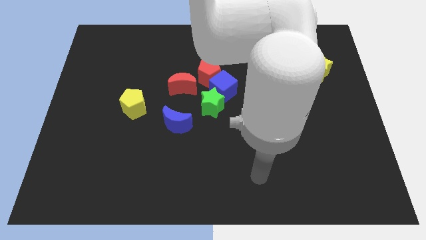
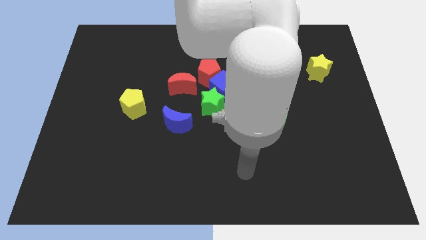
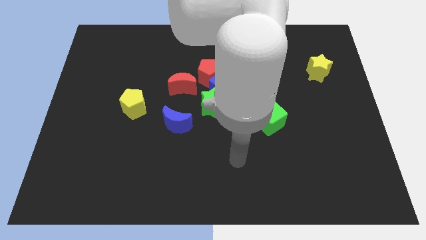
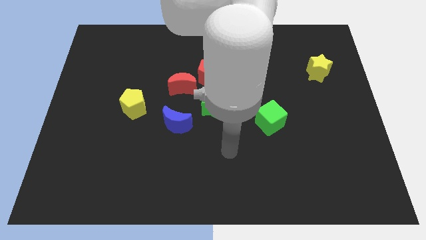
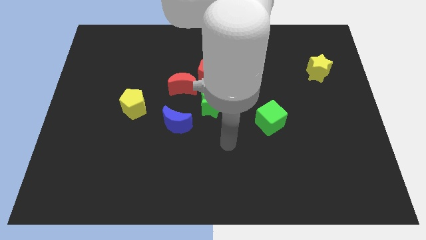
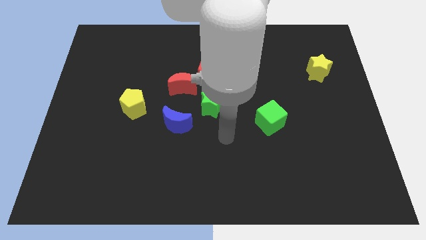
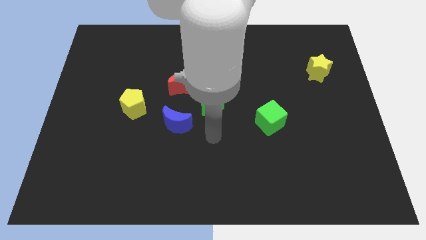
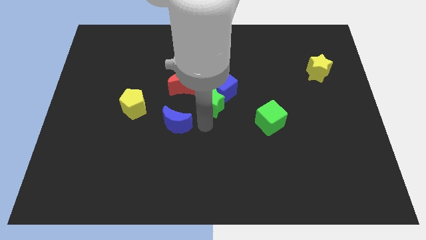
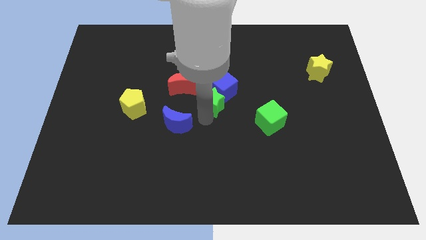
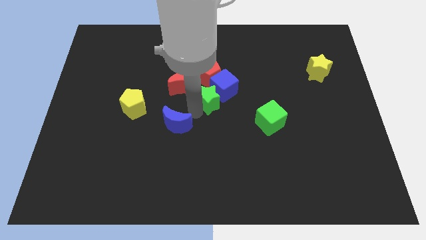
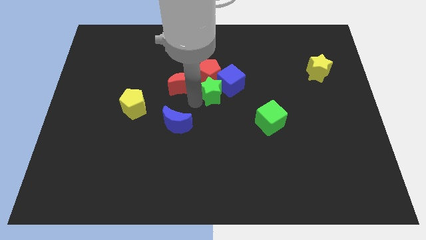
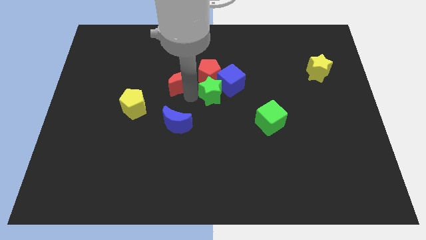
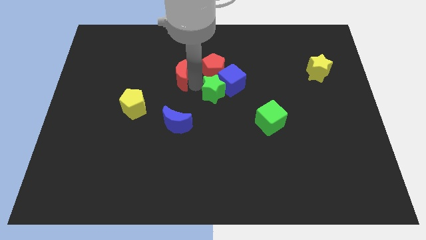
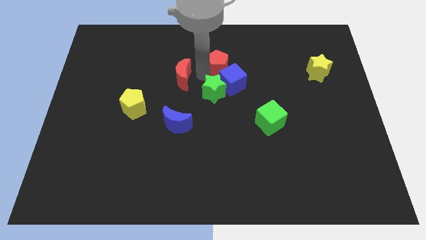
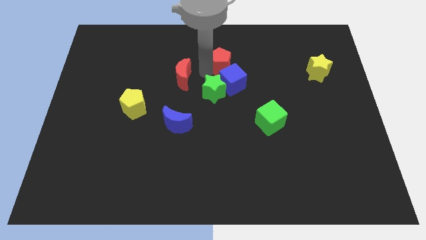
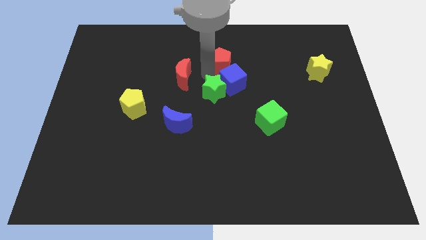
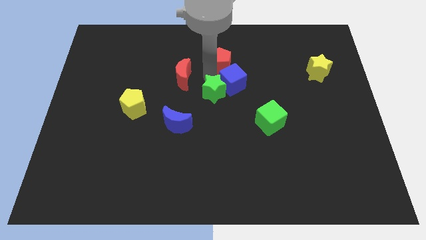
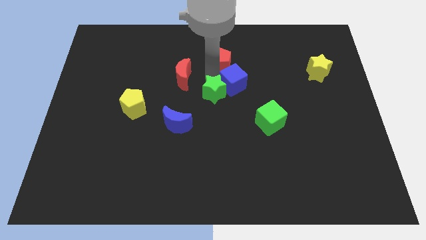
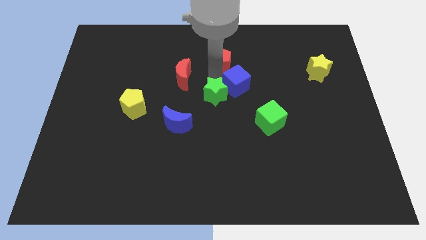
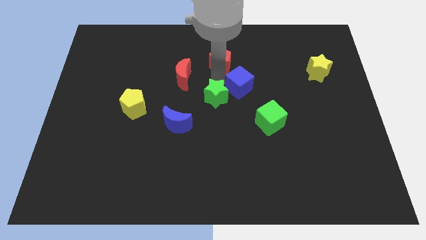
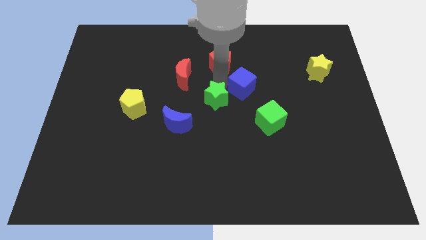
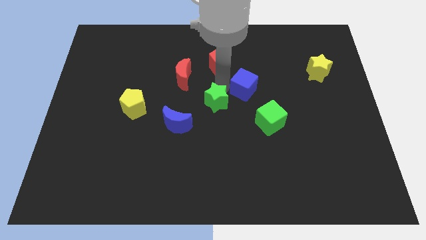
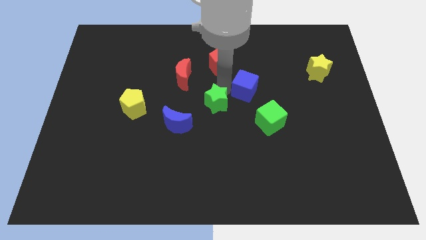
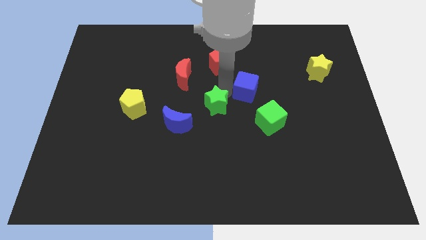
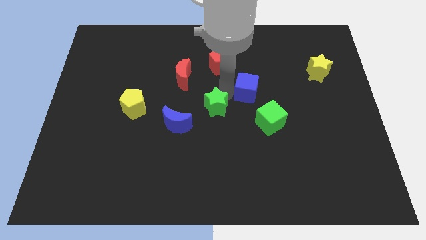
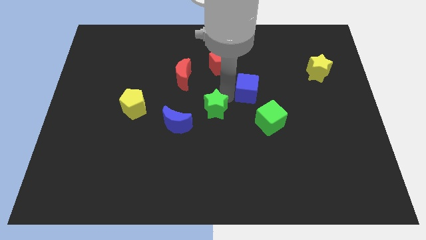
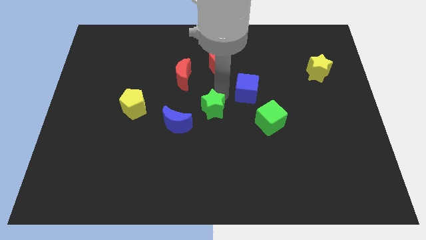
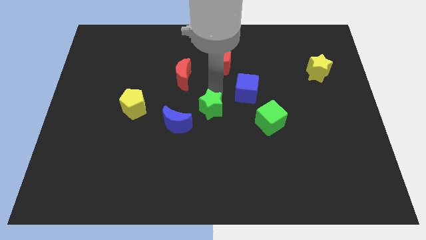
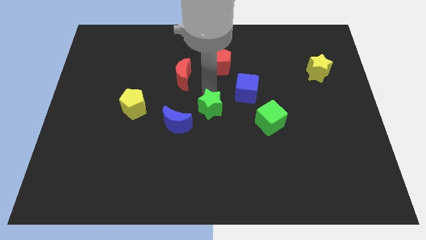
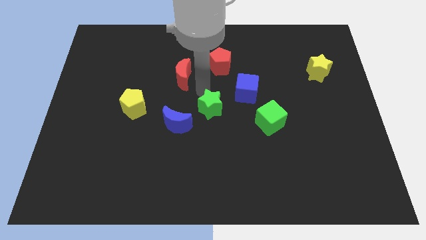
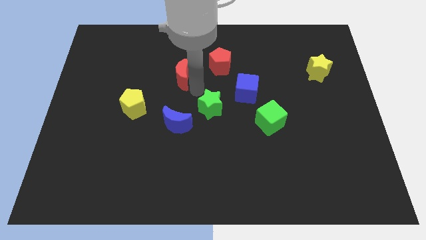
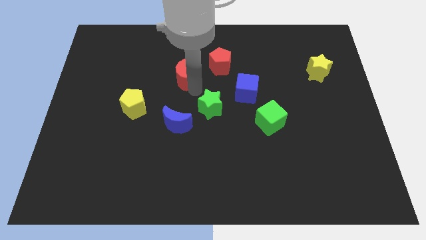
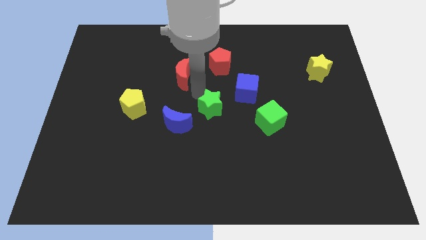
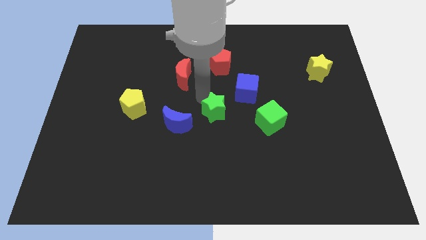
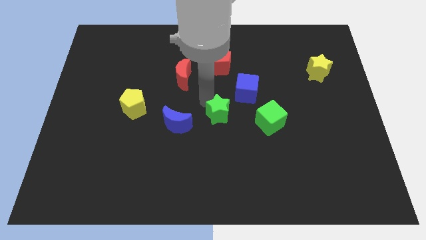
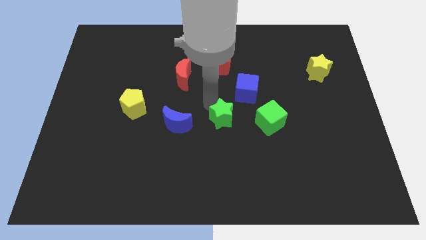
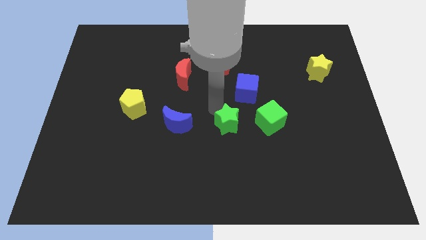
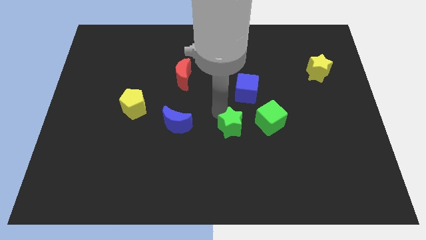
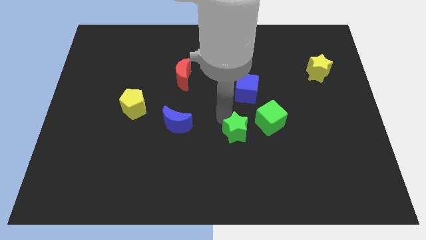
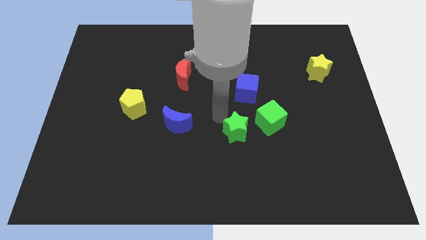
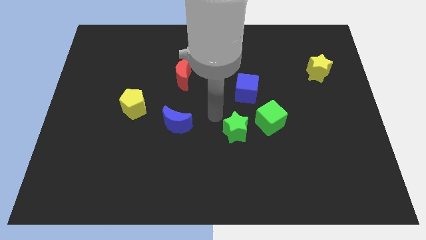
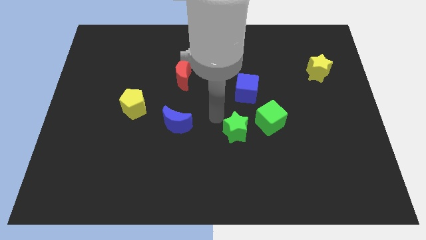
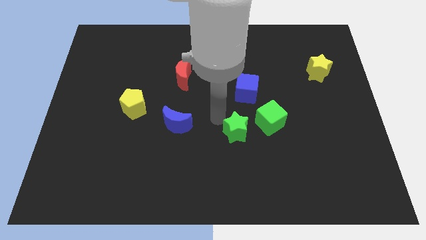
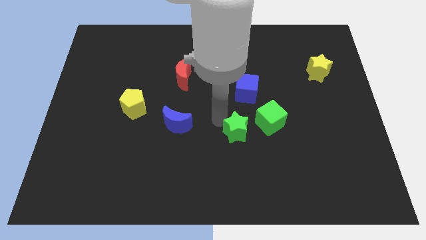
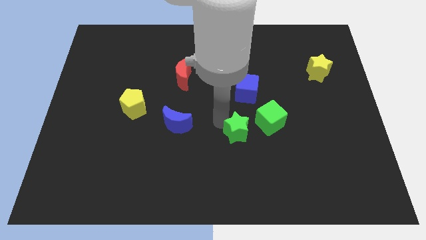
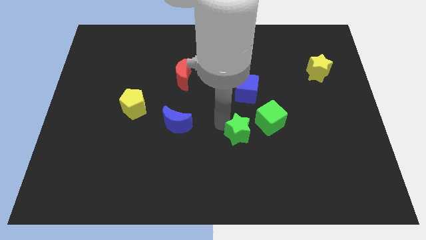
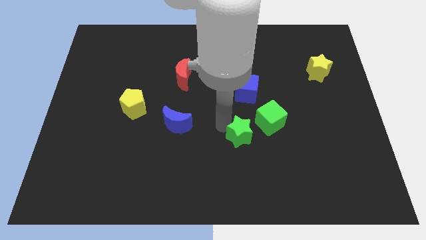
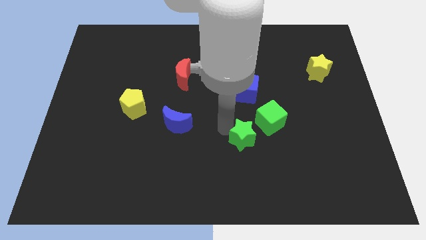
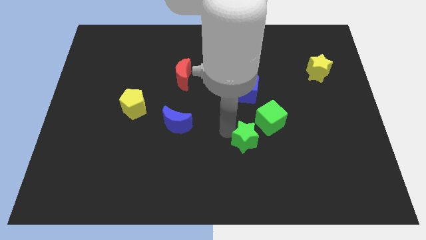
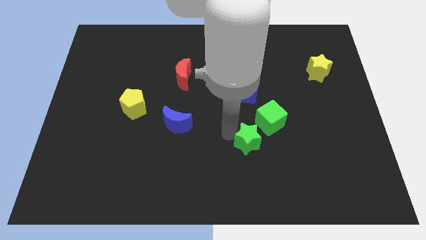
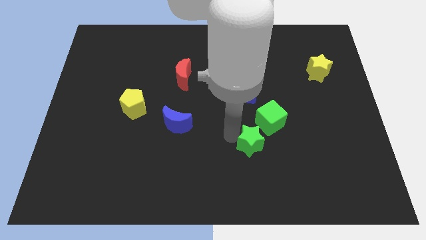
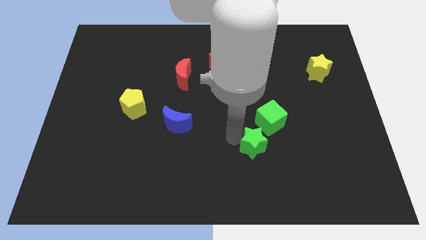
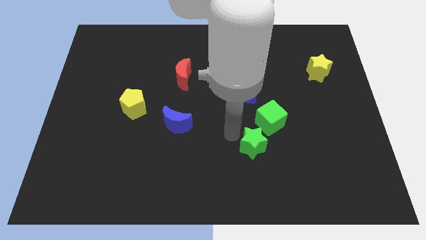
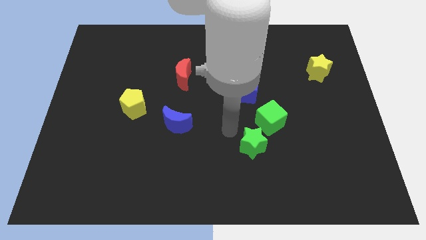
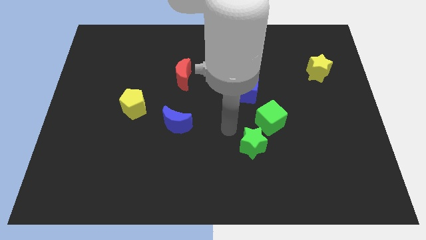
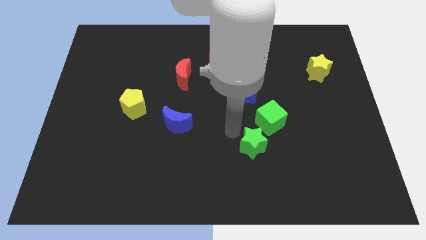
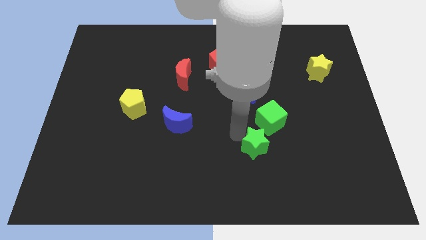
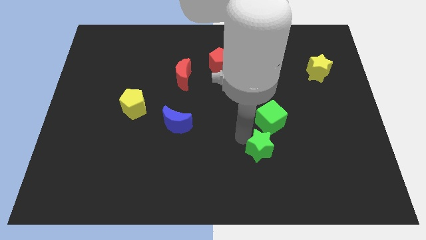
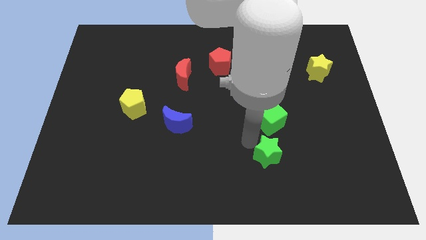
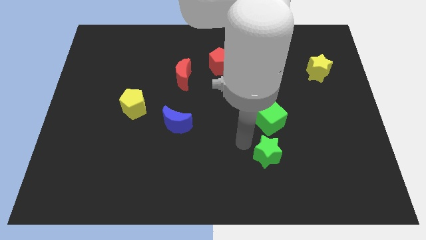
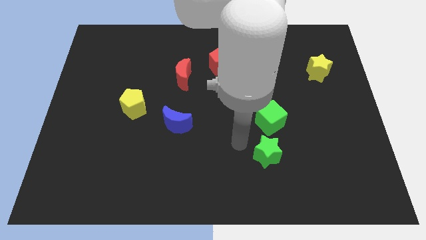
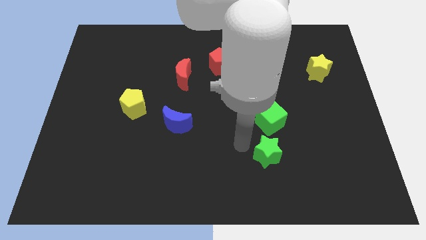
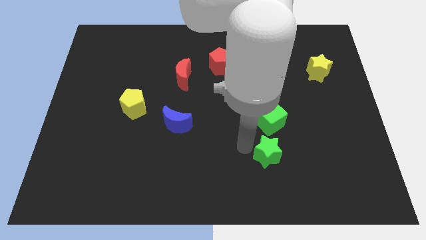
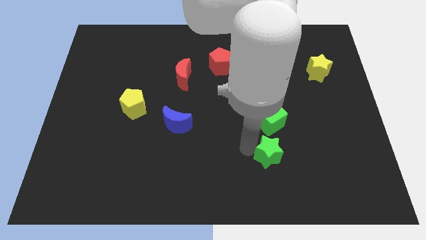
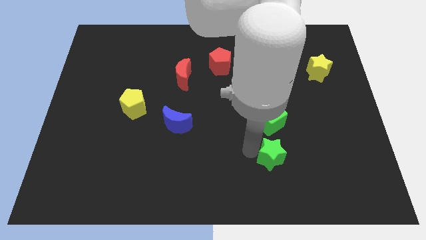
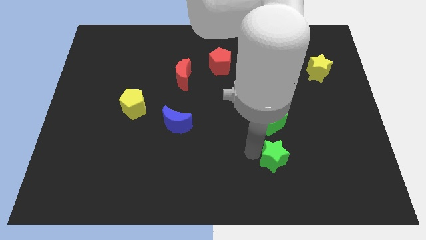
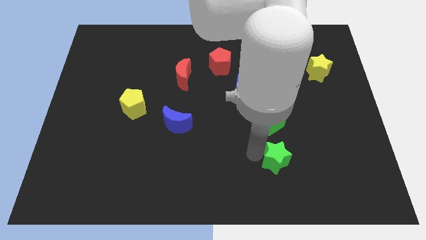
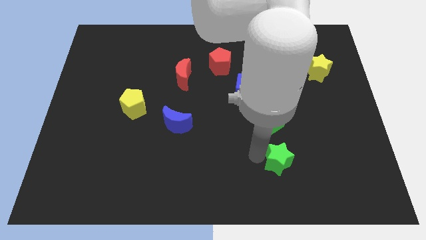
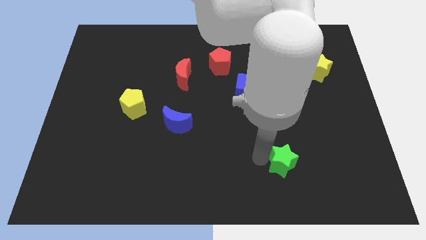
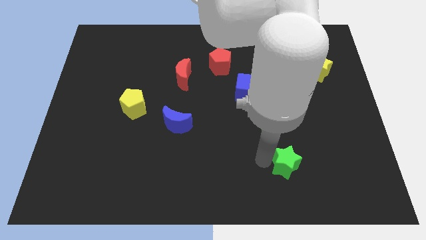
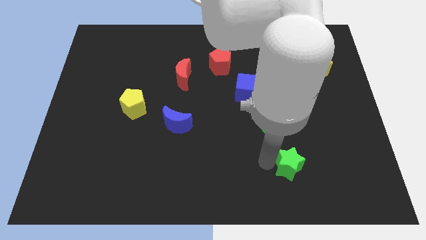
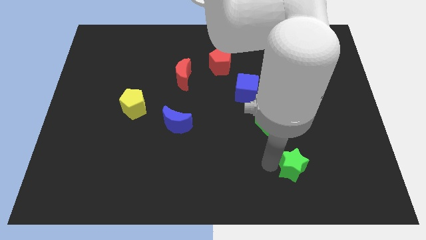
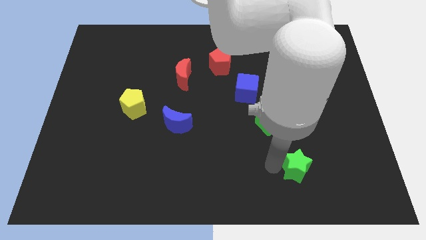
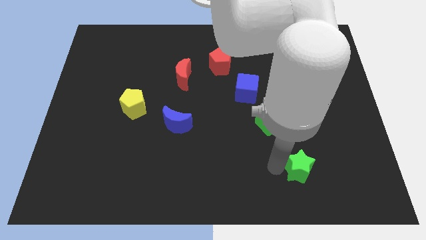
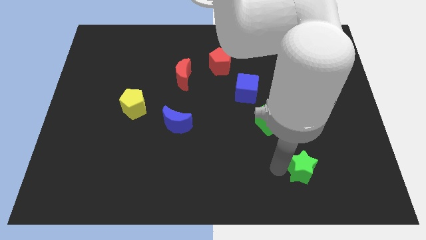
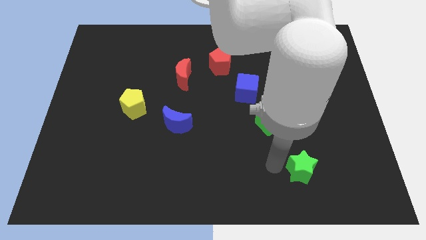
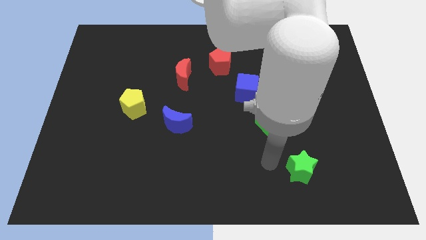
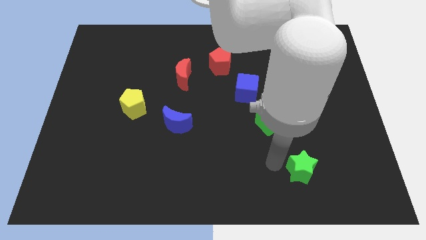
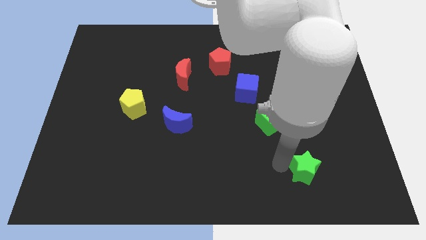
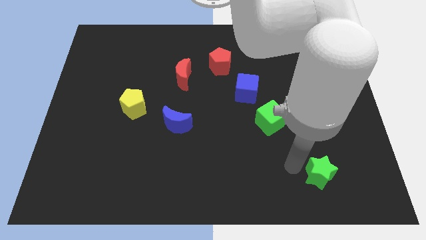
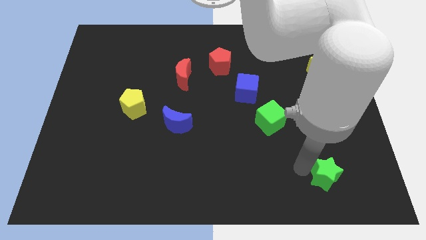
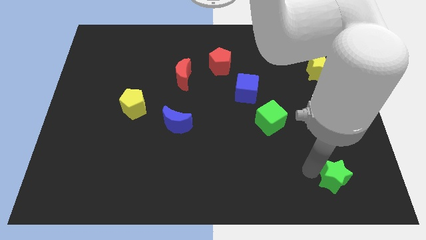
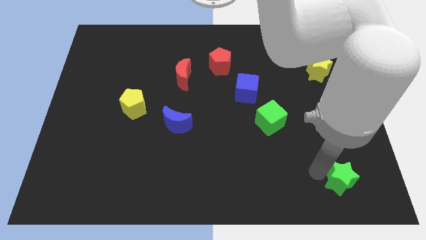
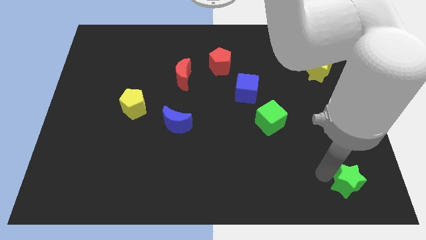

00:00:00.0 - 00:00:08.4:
move the green star to the bottom right of the board
